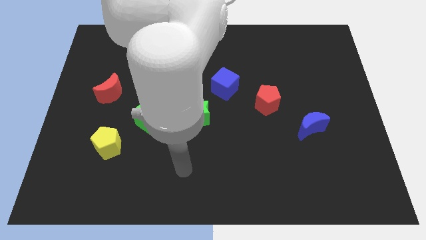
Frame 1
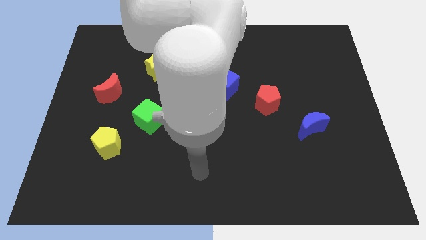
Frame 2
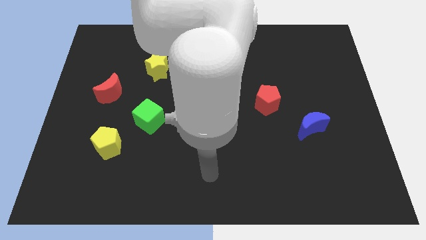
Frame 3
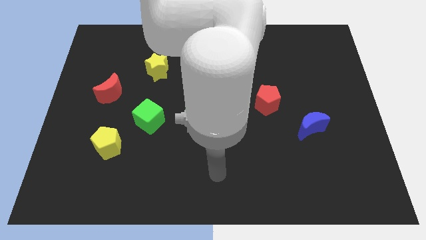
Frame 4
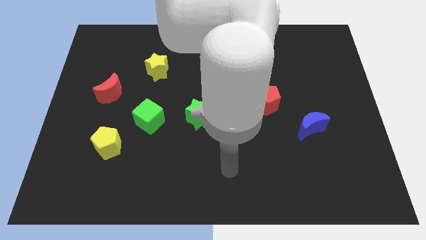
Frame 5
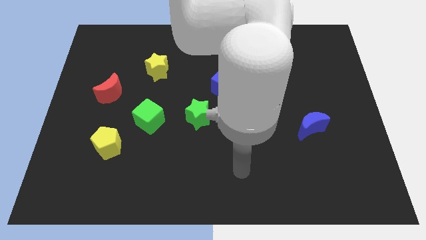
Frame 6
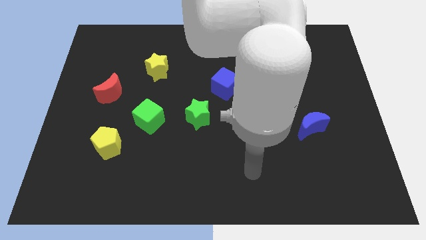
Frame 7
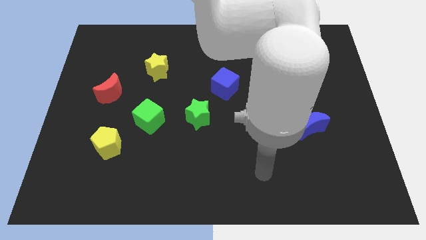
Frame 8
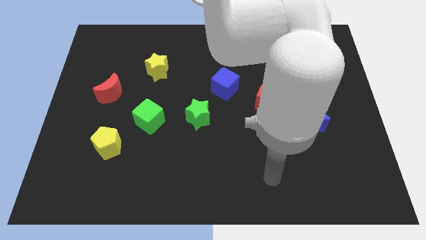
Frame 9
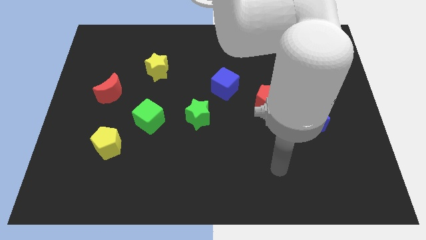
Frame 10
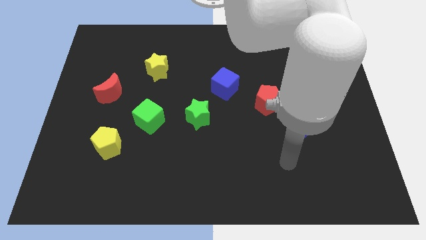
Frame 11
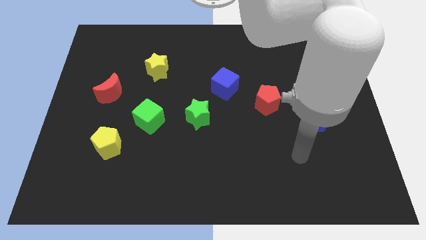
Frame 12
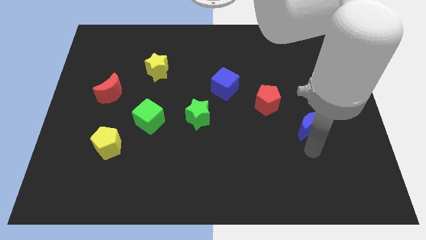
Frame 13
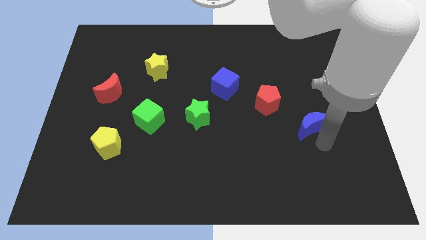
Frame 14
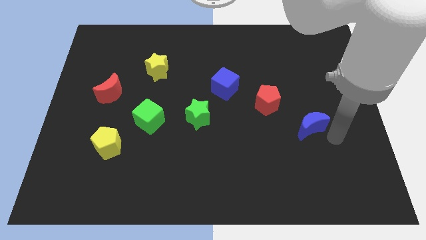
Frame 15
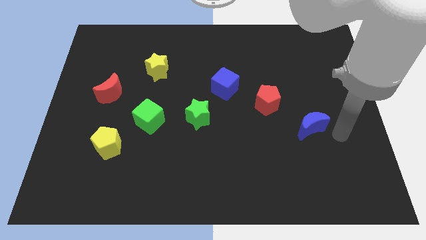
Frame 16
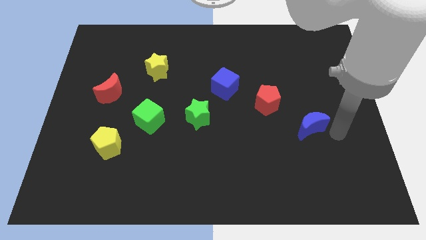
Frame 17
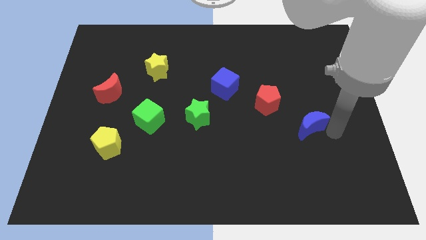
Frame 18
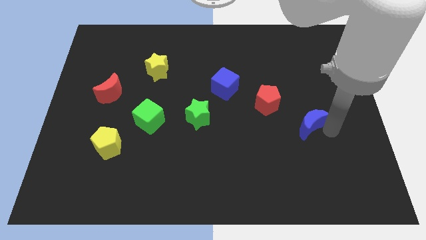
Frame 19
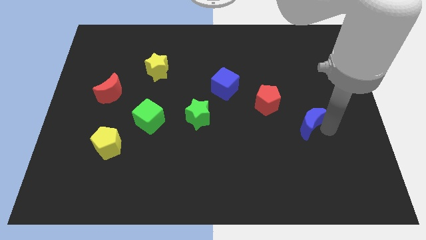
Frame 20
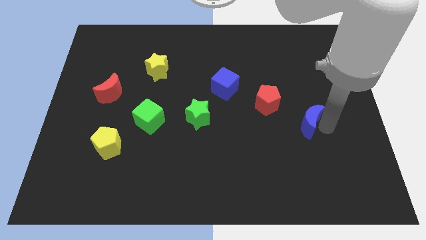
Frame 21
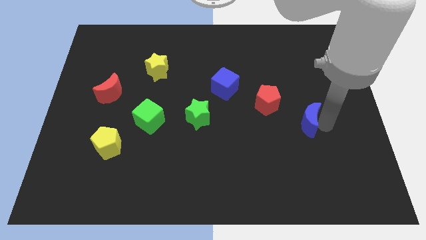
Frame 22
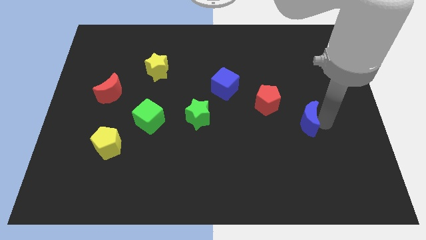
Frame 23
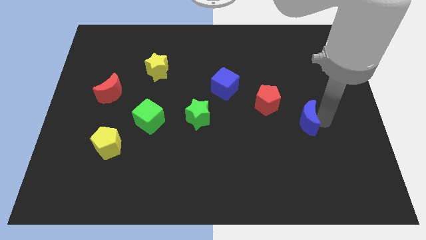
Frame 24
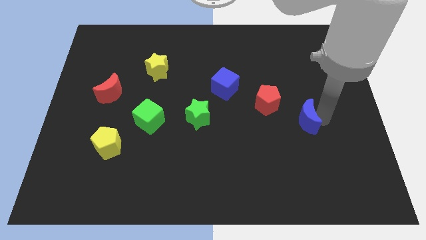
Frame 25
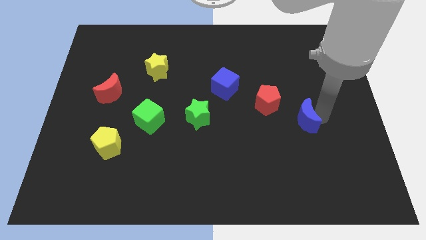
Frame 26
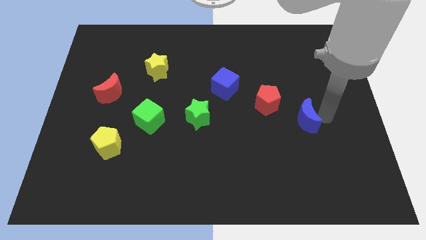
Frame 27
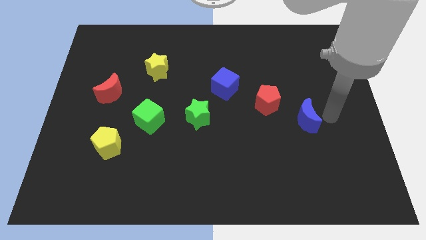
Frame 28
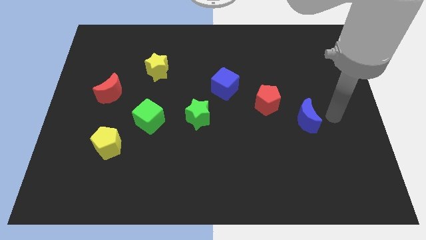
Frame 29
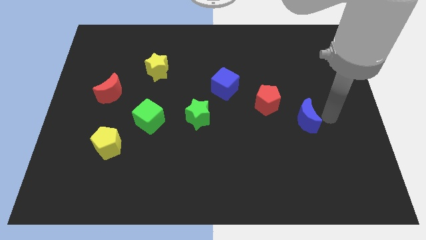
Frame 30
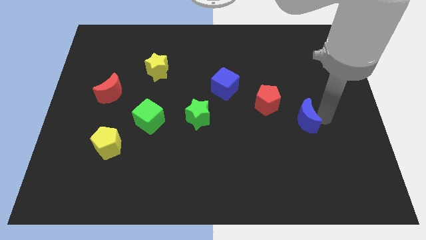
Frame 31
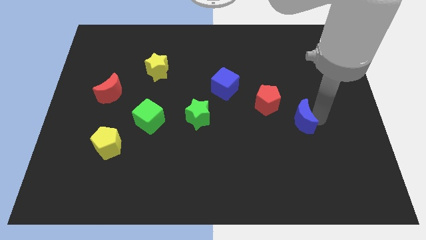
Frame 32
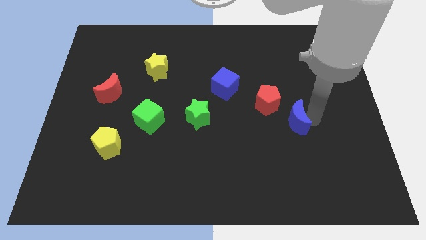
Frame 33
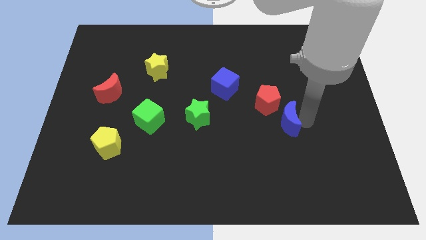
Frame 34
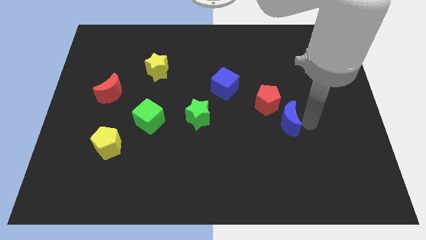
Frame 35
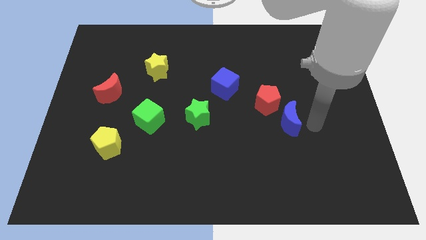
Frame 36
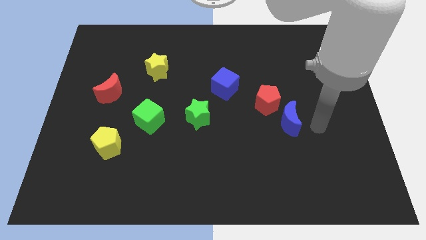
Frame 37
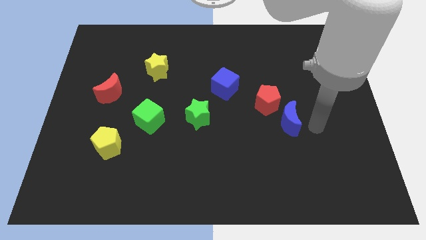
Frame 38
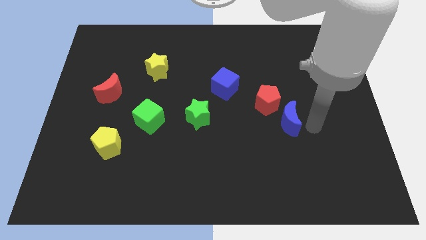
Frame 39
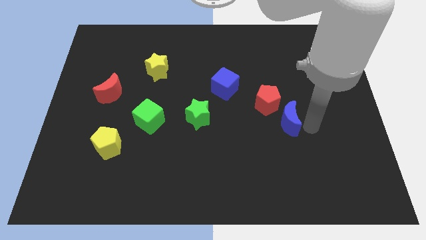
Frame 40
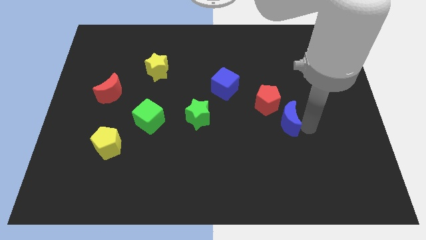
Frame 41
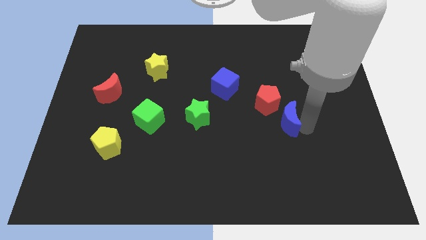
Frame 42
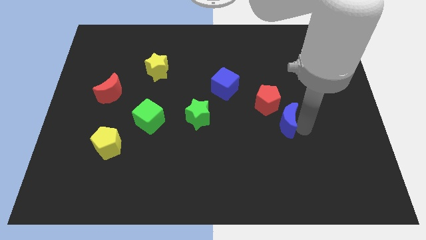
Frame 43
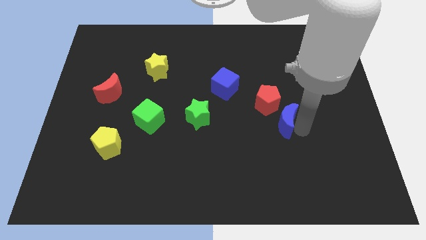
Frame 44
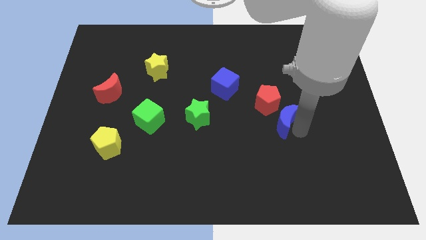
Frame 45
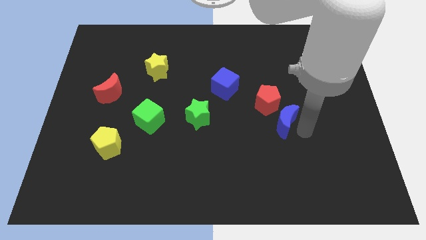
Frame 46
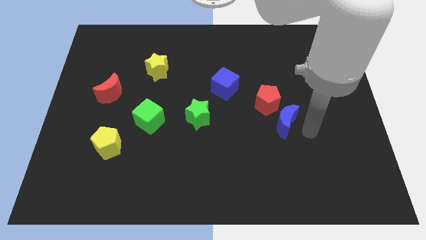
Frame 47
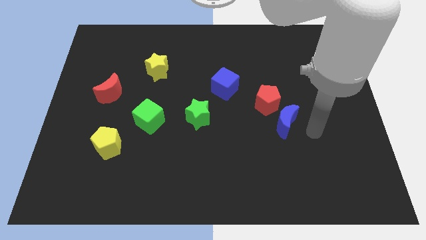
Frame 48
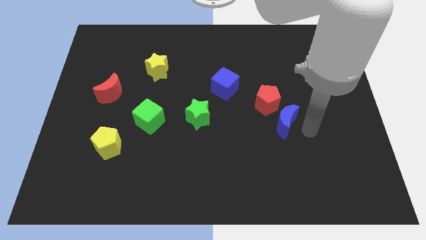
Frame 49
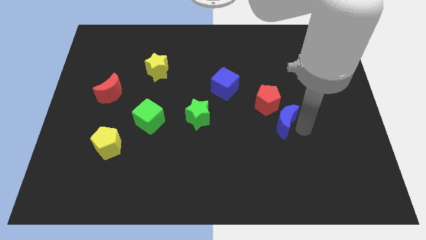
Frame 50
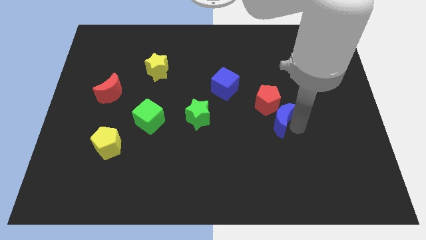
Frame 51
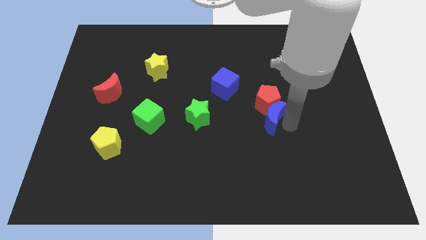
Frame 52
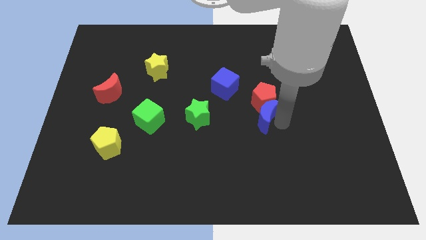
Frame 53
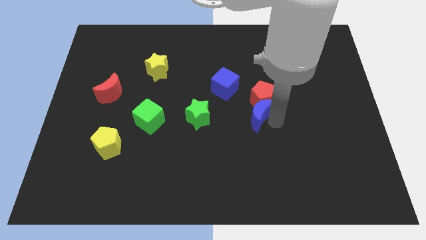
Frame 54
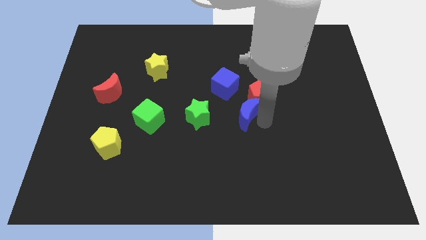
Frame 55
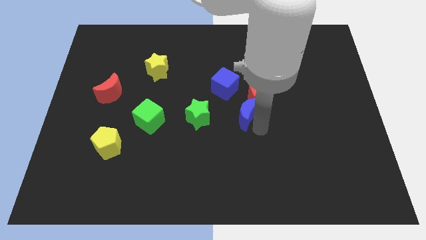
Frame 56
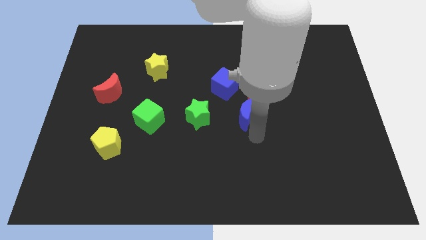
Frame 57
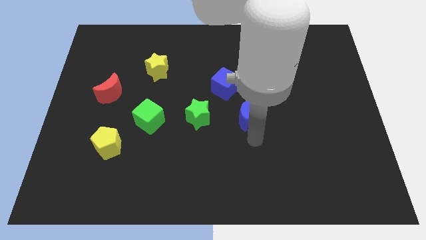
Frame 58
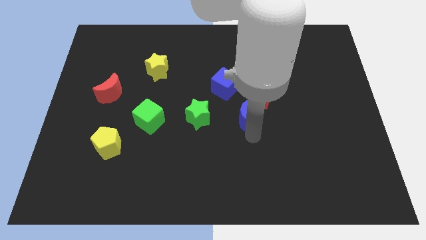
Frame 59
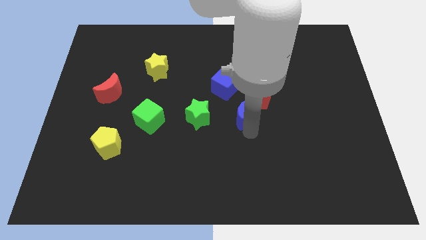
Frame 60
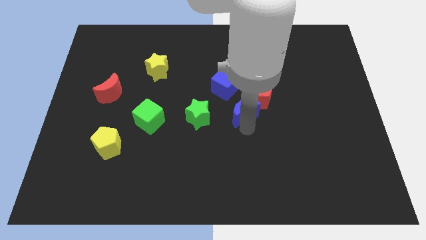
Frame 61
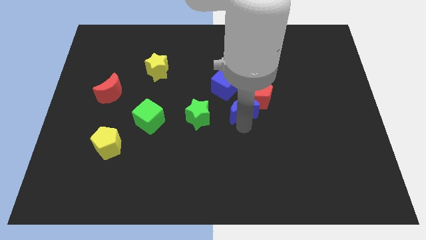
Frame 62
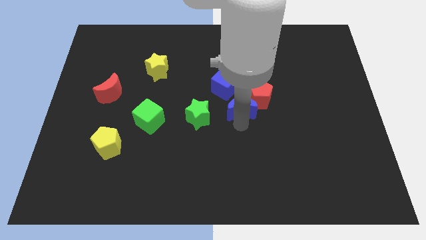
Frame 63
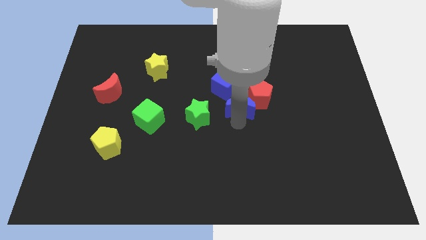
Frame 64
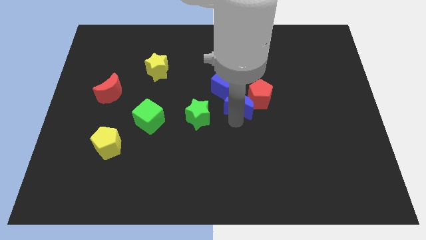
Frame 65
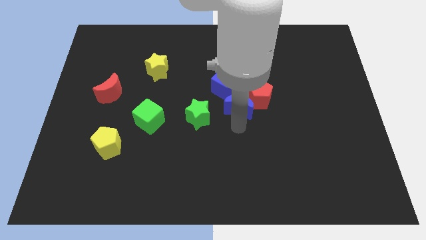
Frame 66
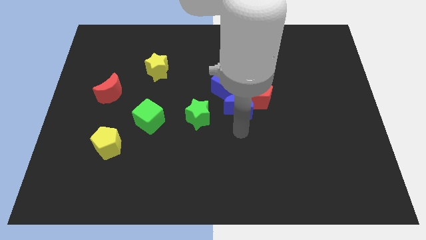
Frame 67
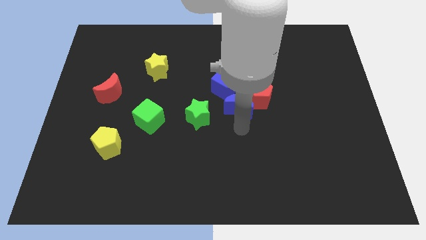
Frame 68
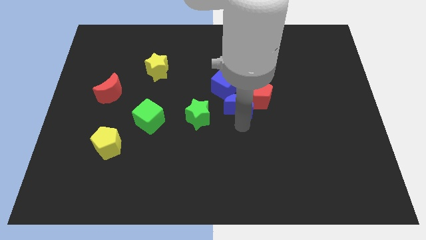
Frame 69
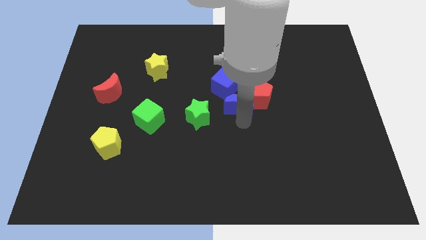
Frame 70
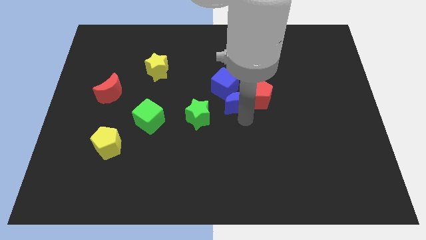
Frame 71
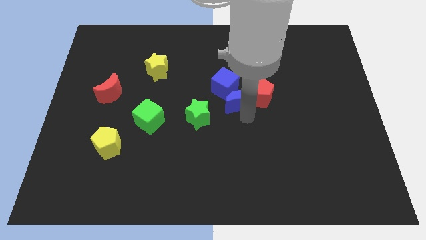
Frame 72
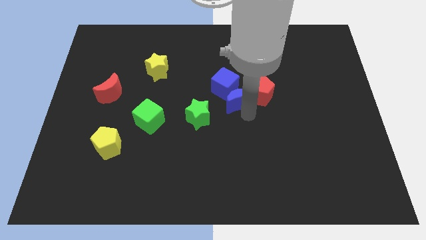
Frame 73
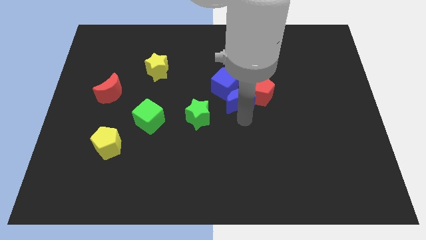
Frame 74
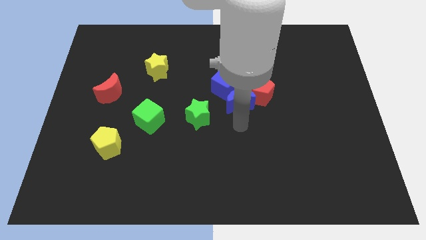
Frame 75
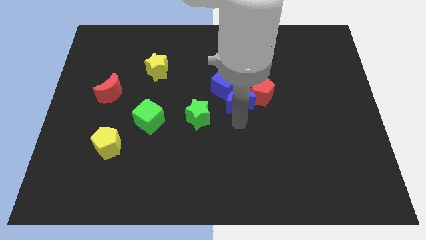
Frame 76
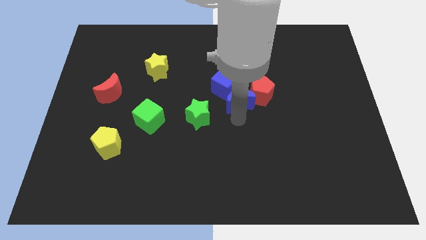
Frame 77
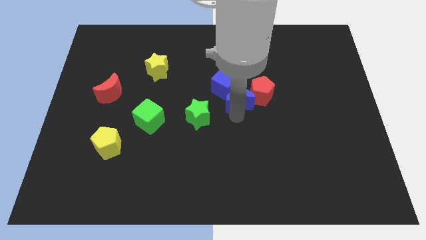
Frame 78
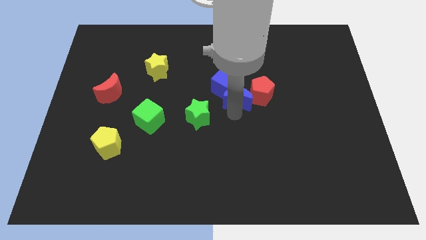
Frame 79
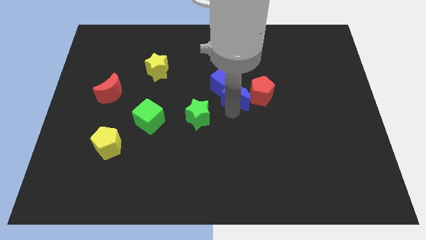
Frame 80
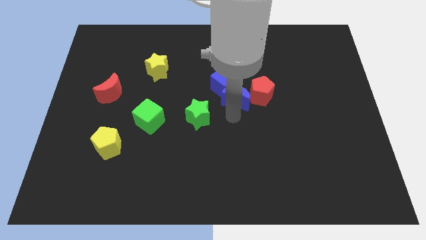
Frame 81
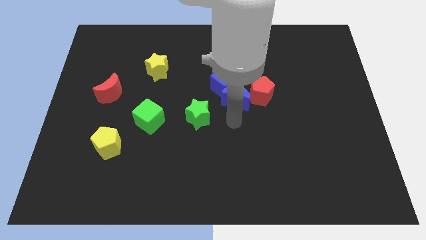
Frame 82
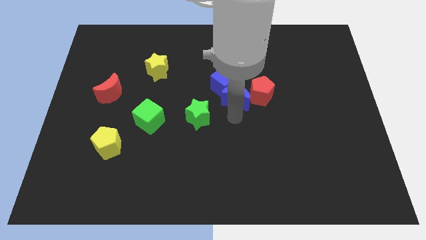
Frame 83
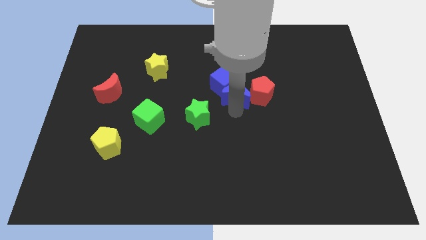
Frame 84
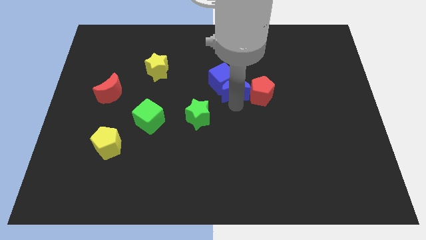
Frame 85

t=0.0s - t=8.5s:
push the blue moon diagonally up and to the left of the red pentagon
